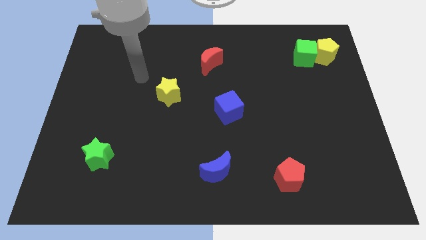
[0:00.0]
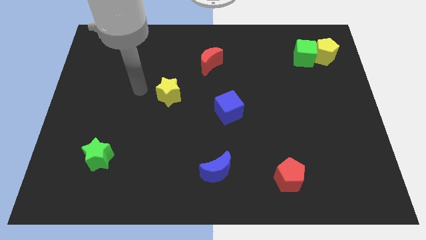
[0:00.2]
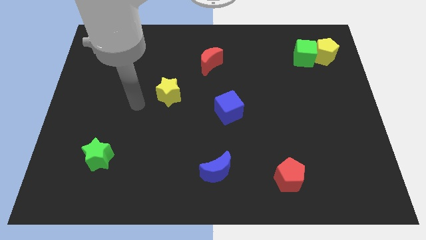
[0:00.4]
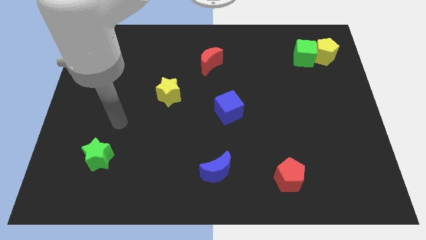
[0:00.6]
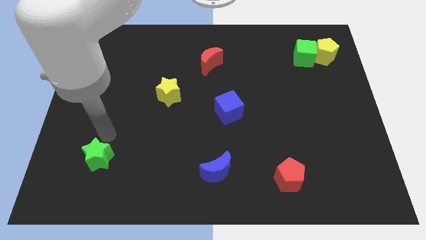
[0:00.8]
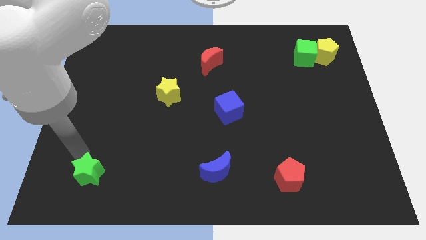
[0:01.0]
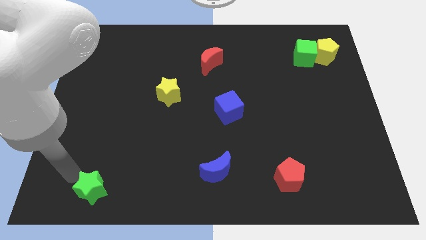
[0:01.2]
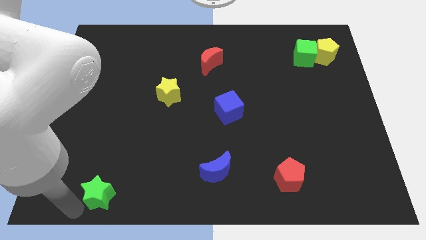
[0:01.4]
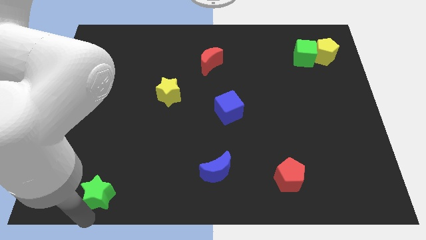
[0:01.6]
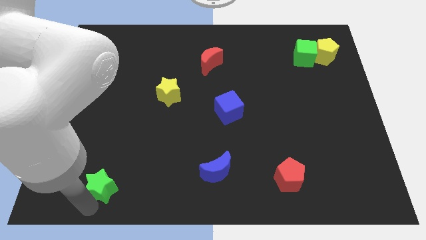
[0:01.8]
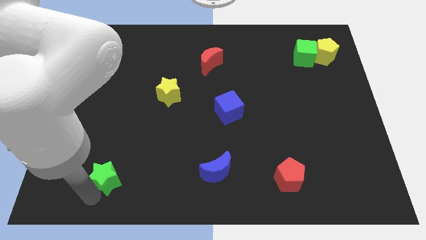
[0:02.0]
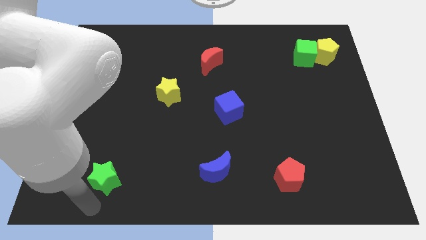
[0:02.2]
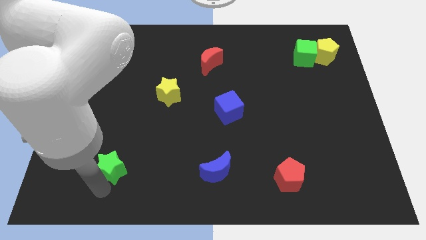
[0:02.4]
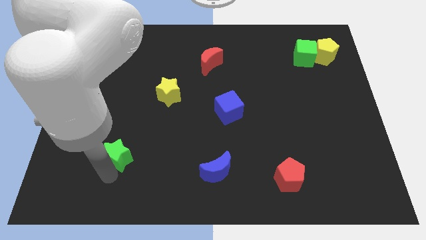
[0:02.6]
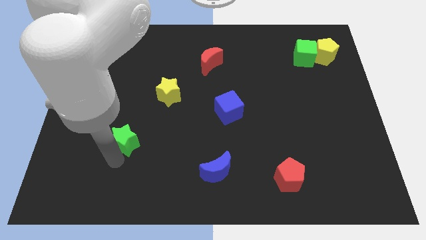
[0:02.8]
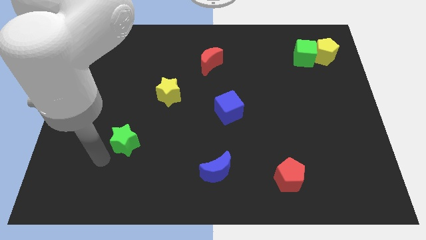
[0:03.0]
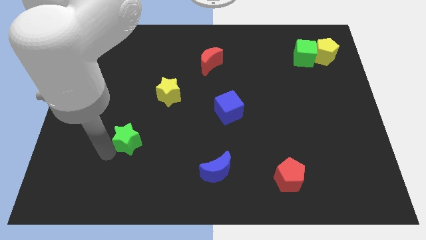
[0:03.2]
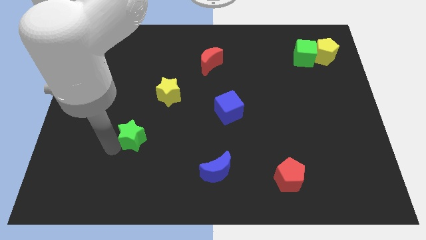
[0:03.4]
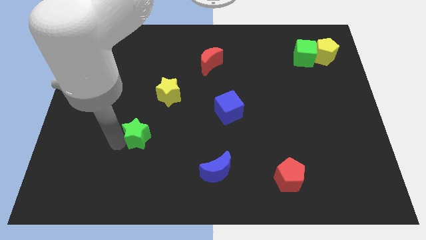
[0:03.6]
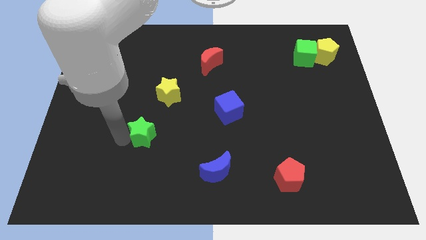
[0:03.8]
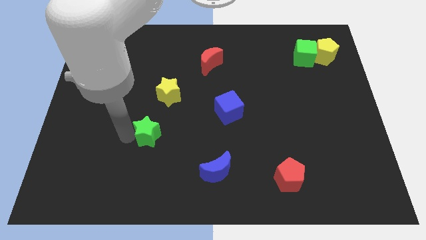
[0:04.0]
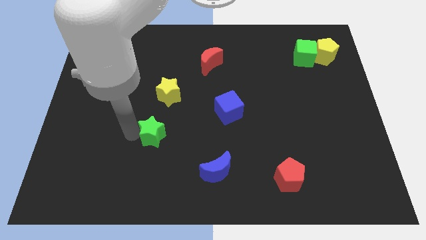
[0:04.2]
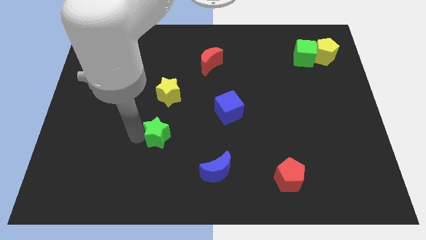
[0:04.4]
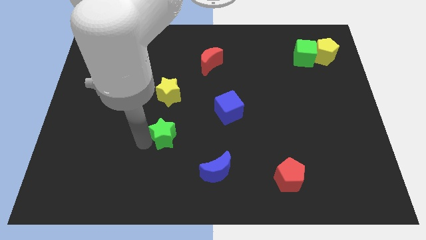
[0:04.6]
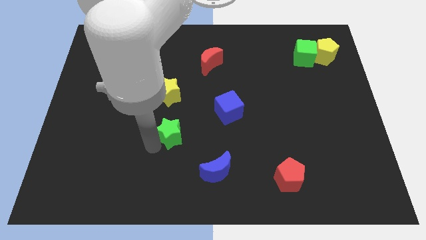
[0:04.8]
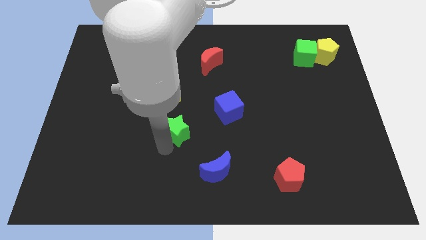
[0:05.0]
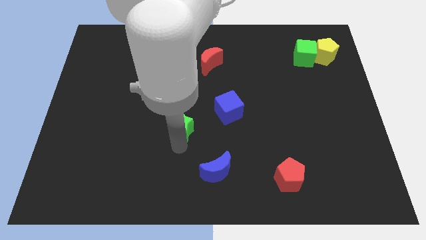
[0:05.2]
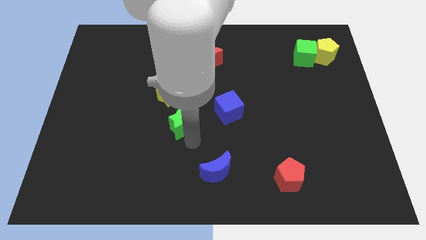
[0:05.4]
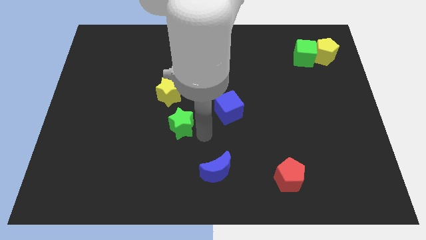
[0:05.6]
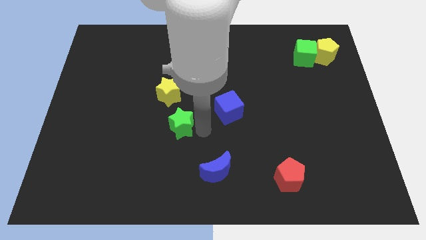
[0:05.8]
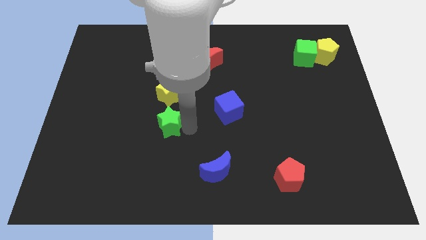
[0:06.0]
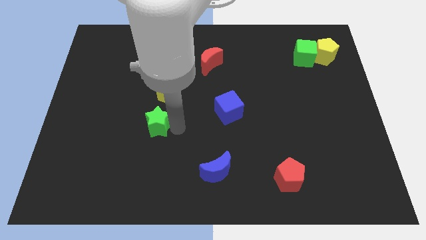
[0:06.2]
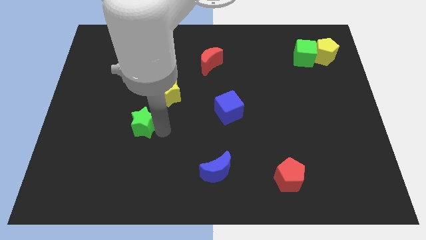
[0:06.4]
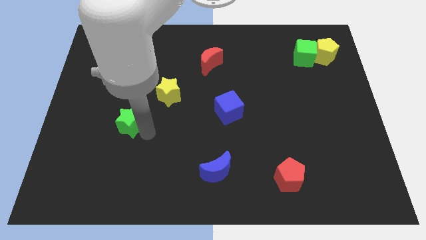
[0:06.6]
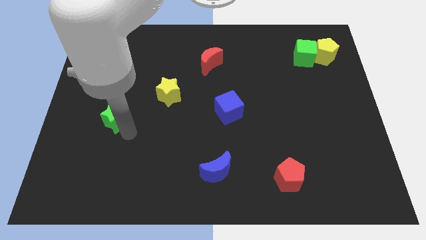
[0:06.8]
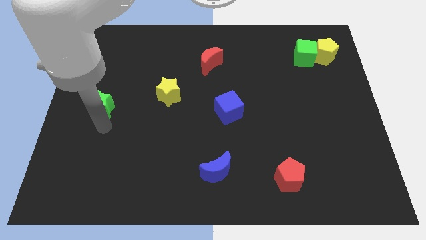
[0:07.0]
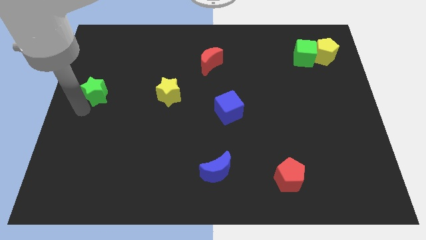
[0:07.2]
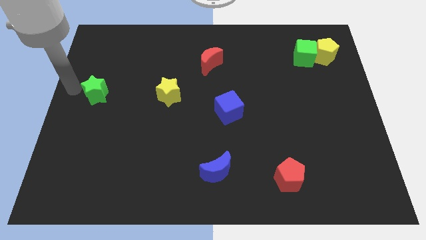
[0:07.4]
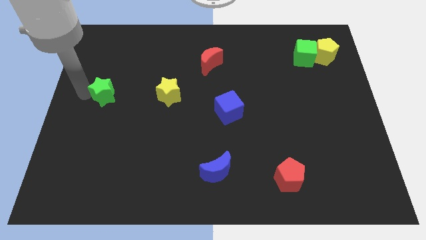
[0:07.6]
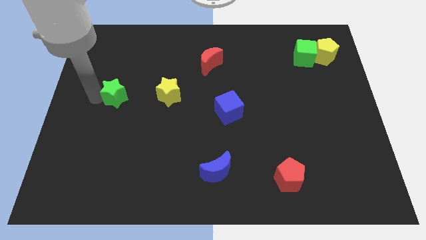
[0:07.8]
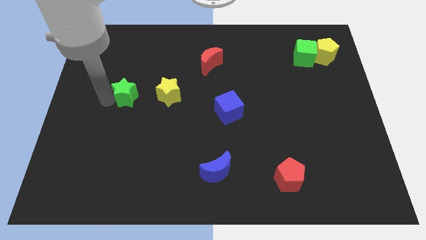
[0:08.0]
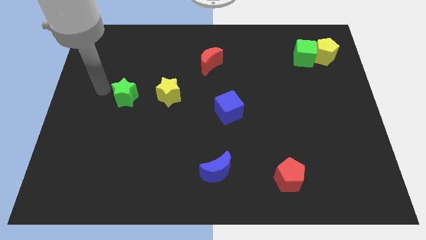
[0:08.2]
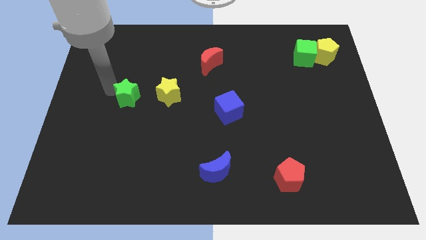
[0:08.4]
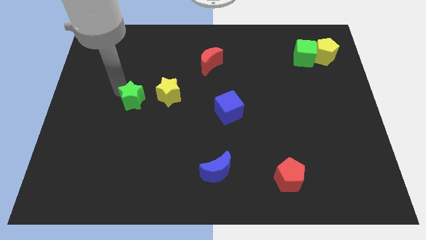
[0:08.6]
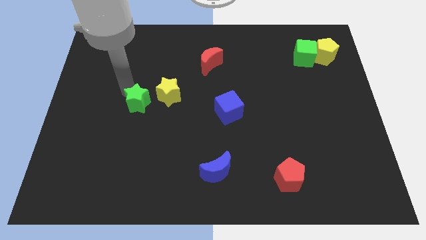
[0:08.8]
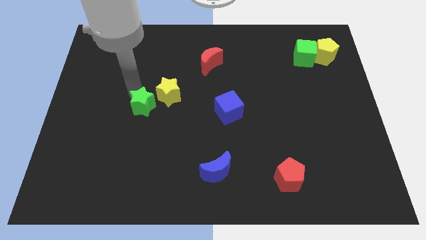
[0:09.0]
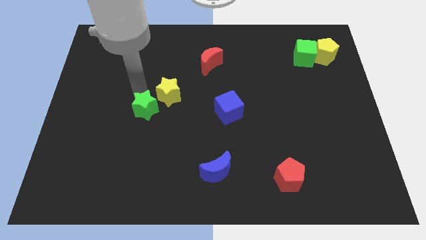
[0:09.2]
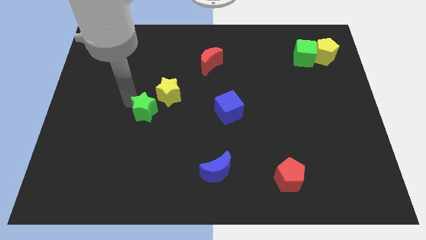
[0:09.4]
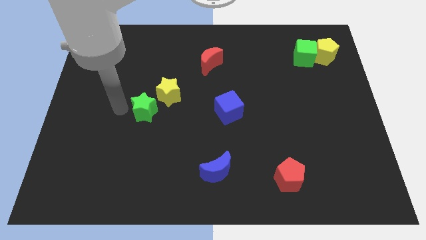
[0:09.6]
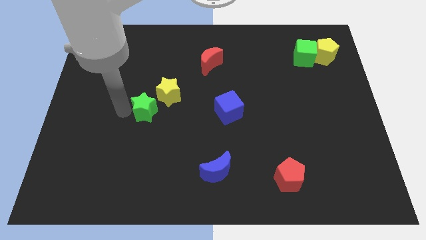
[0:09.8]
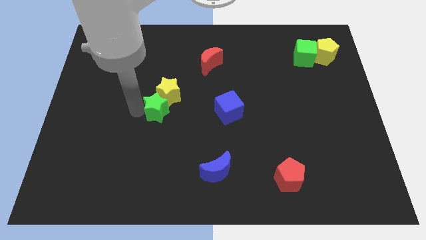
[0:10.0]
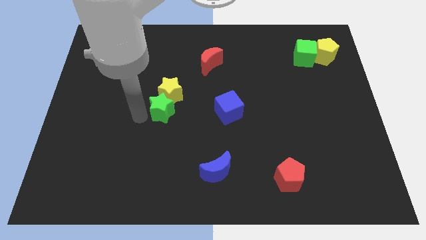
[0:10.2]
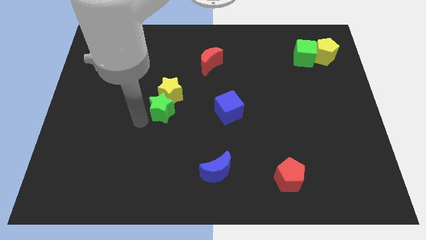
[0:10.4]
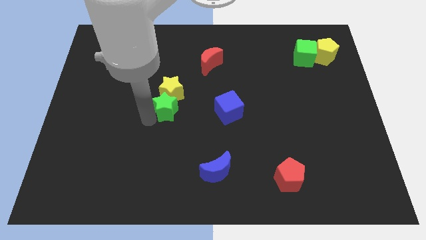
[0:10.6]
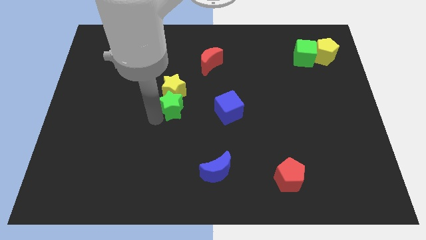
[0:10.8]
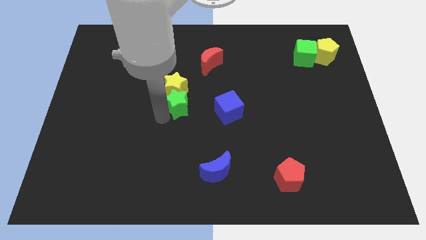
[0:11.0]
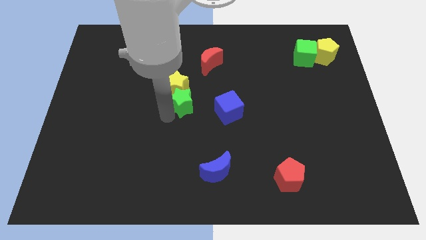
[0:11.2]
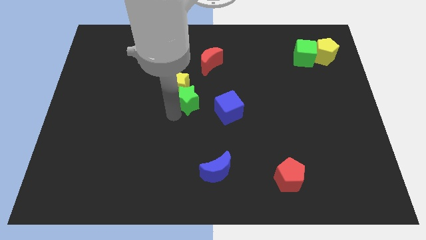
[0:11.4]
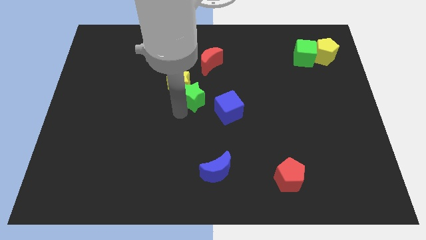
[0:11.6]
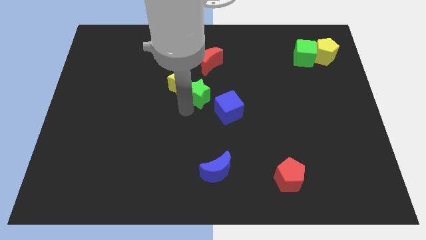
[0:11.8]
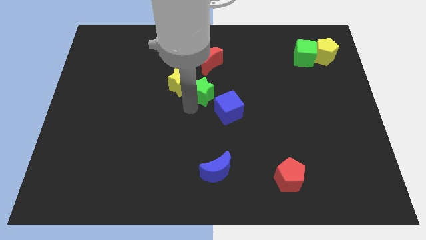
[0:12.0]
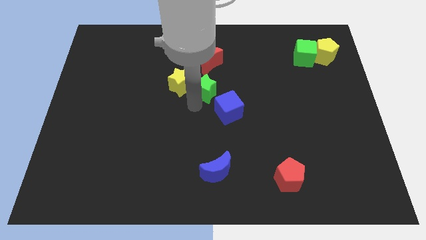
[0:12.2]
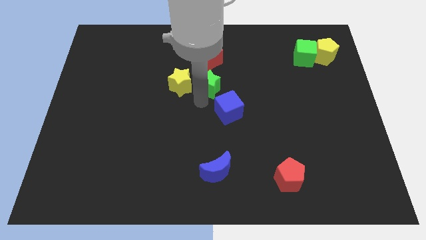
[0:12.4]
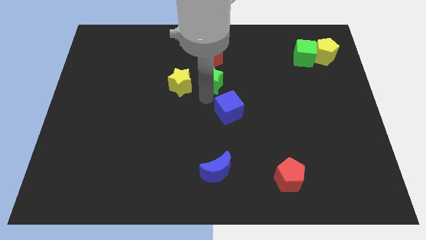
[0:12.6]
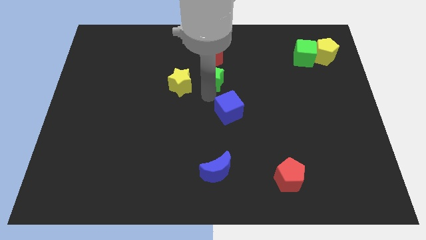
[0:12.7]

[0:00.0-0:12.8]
move the green star close to the red moon

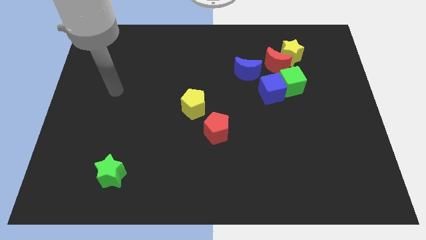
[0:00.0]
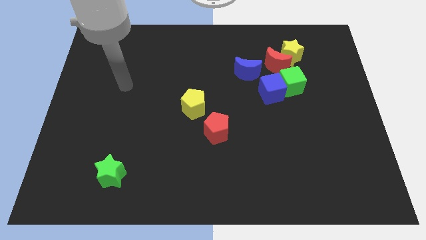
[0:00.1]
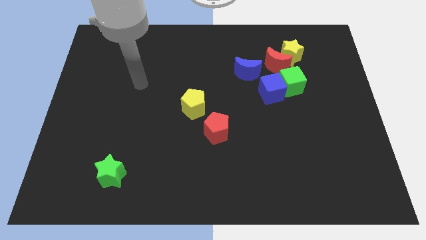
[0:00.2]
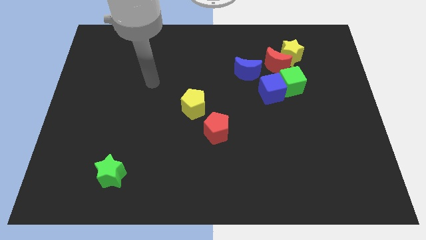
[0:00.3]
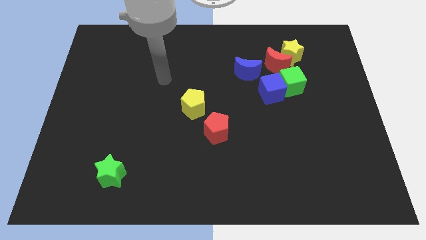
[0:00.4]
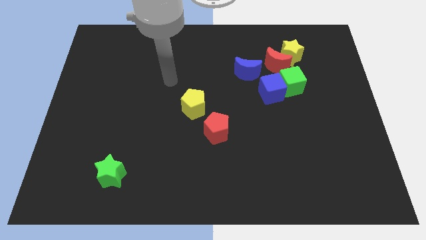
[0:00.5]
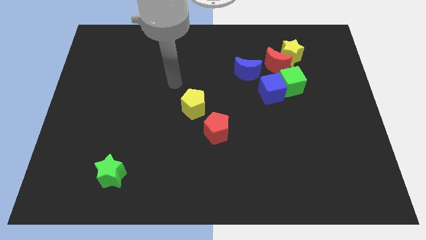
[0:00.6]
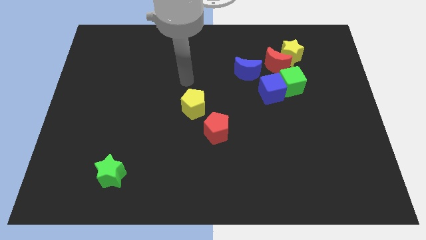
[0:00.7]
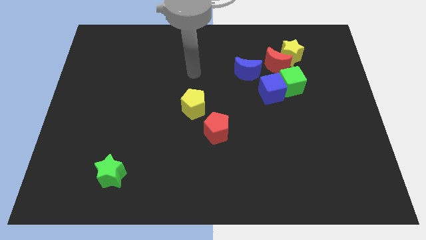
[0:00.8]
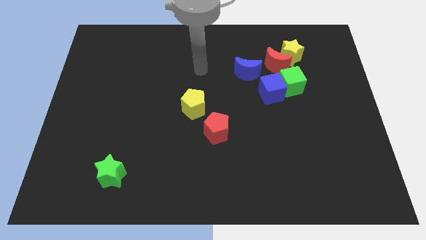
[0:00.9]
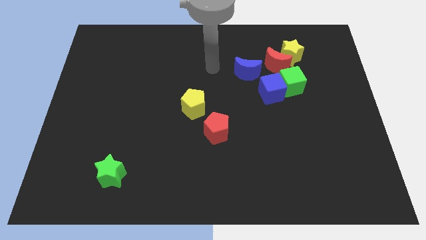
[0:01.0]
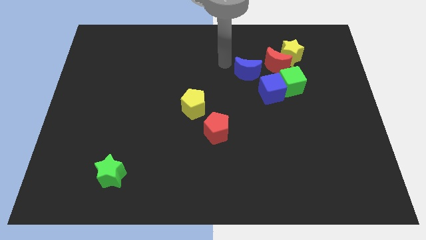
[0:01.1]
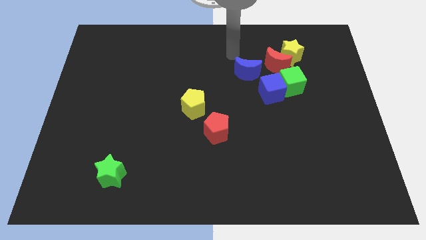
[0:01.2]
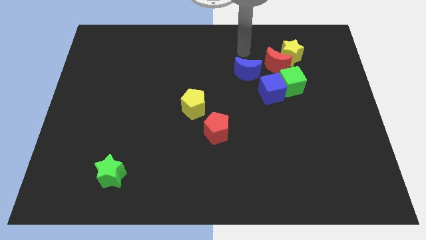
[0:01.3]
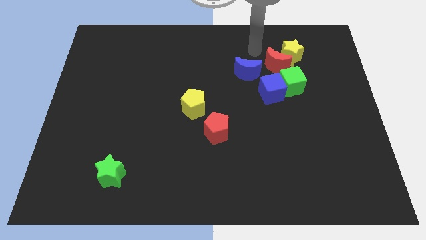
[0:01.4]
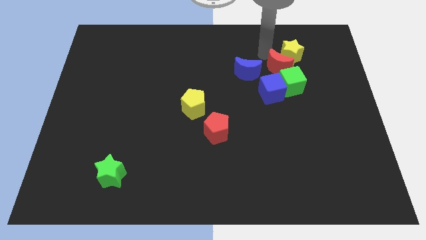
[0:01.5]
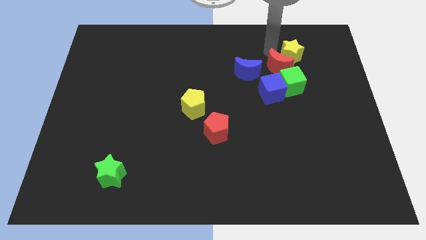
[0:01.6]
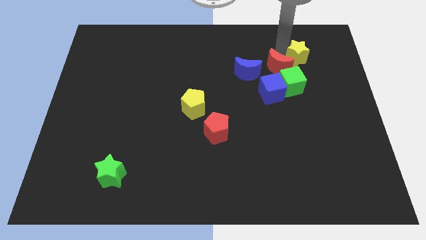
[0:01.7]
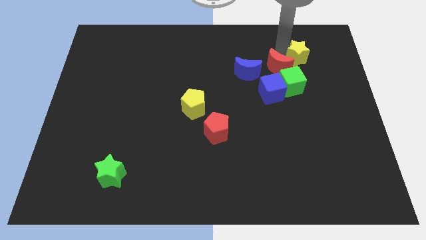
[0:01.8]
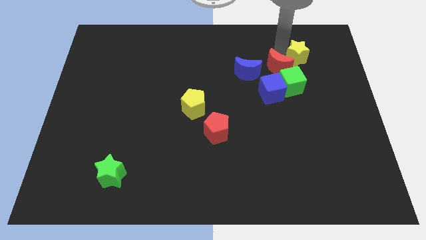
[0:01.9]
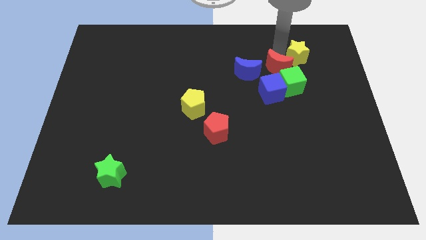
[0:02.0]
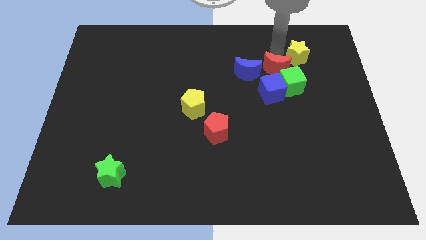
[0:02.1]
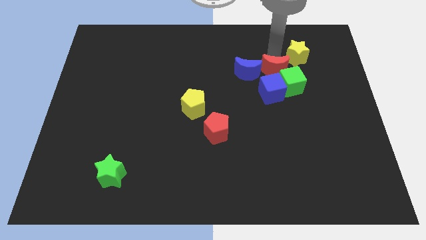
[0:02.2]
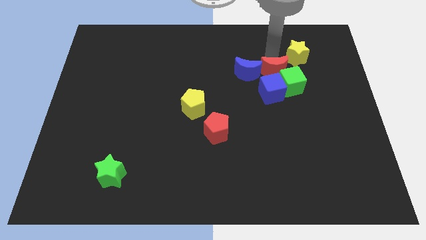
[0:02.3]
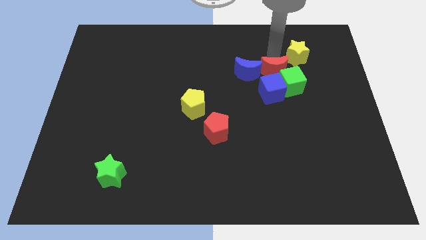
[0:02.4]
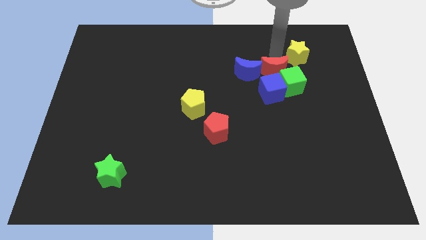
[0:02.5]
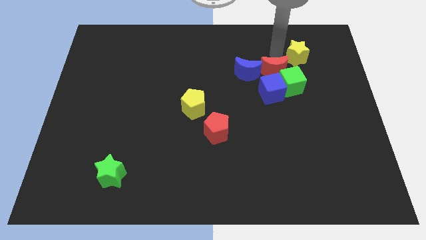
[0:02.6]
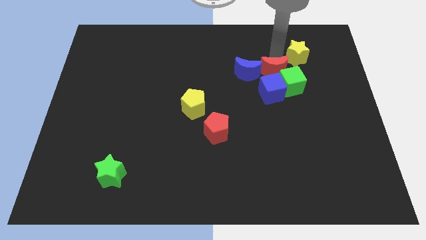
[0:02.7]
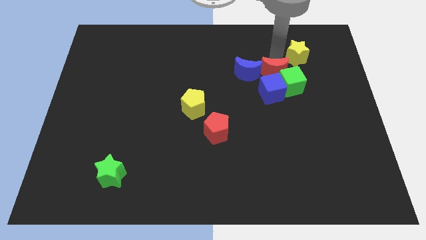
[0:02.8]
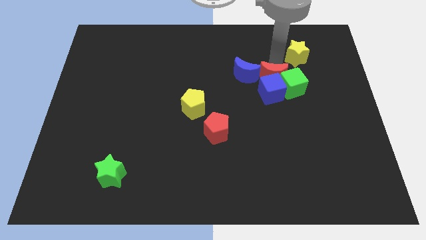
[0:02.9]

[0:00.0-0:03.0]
put the red moon to the blue cube
